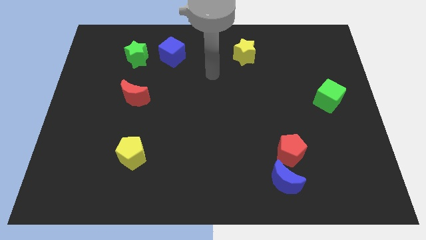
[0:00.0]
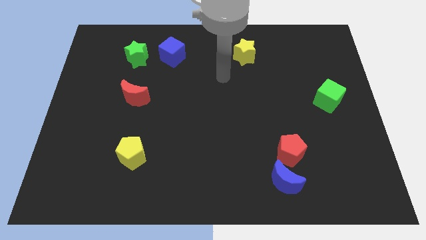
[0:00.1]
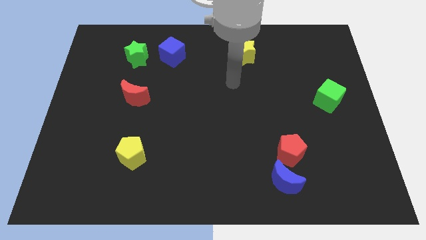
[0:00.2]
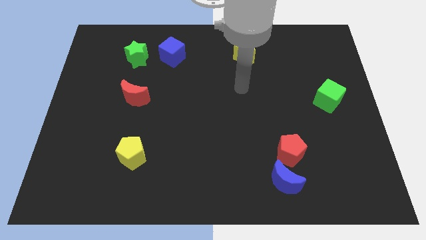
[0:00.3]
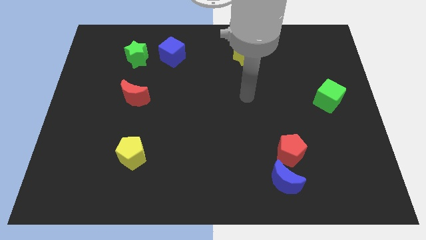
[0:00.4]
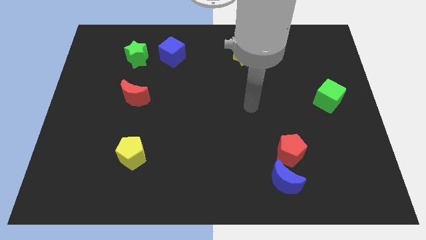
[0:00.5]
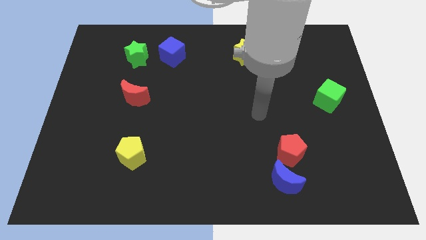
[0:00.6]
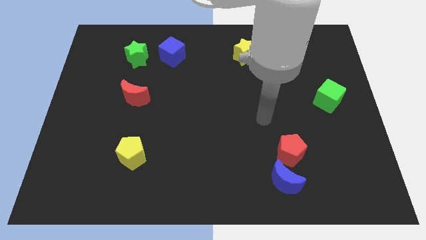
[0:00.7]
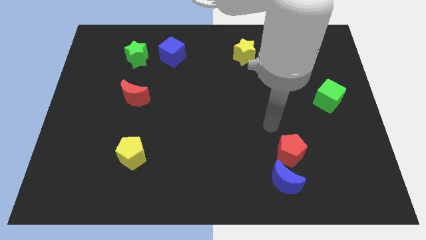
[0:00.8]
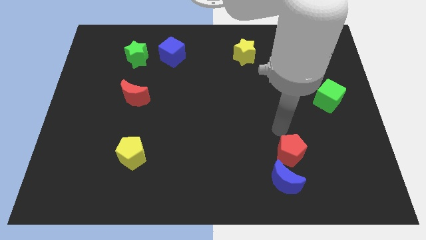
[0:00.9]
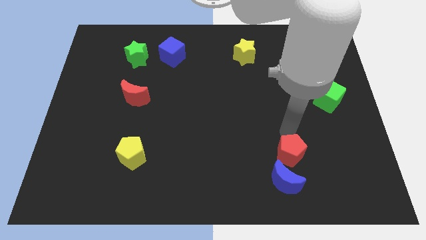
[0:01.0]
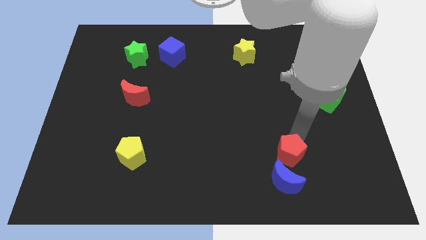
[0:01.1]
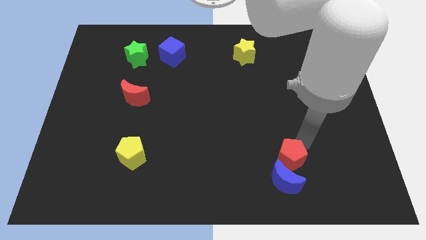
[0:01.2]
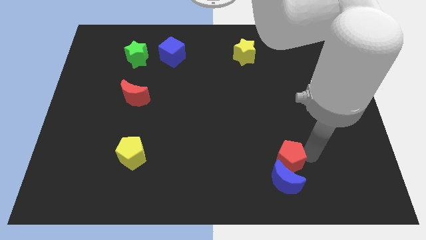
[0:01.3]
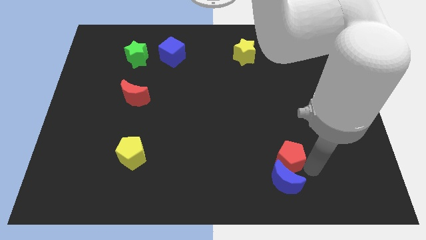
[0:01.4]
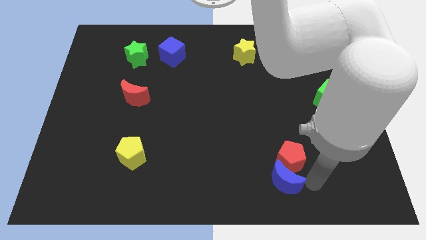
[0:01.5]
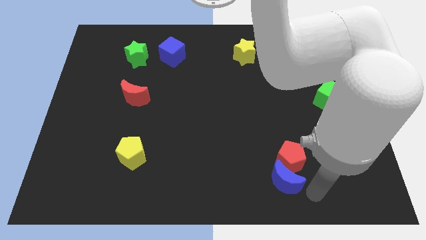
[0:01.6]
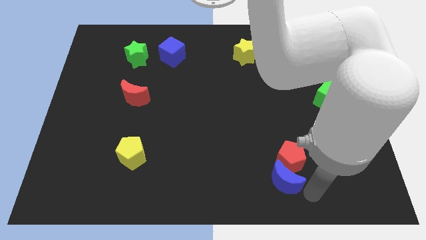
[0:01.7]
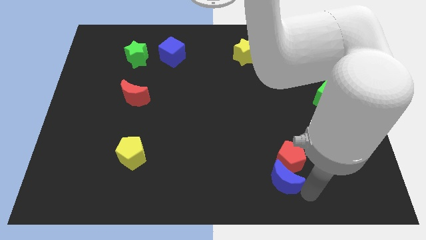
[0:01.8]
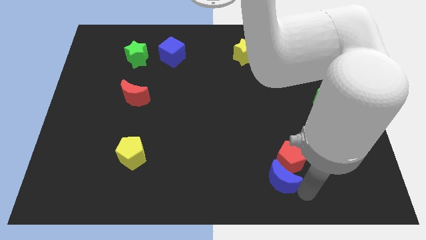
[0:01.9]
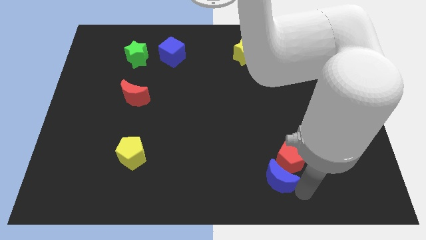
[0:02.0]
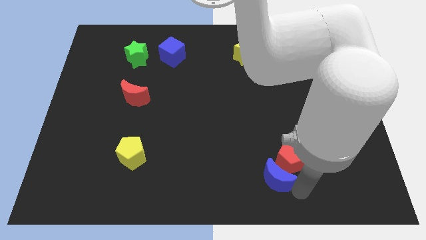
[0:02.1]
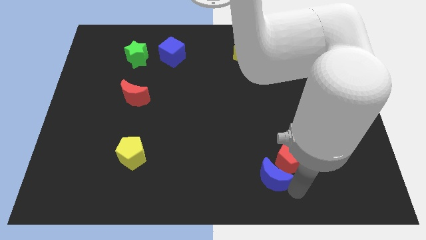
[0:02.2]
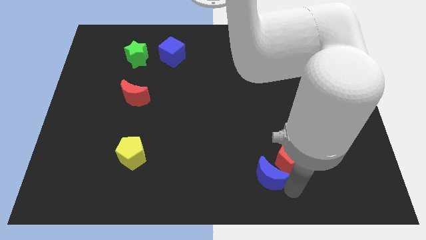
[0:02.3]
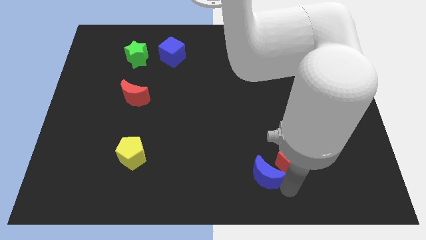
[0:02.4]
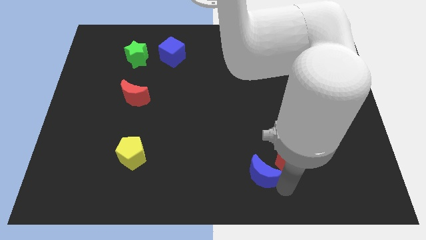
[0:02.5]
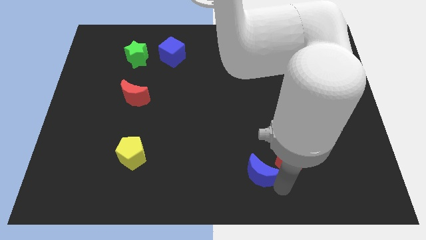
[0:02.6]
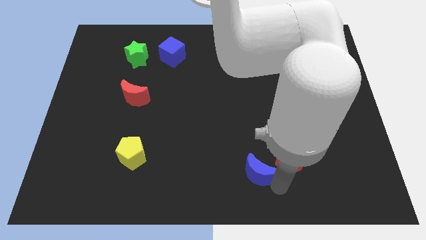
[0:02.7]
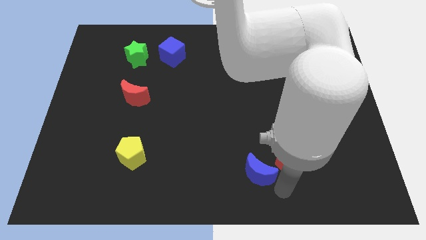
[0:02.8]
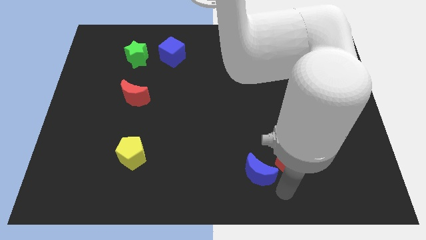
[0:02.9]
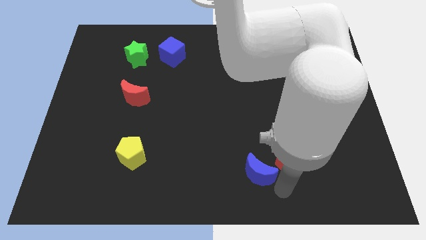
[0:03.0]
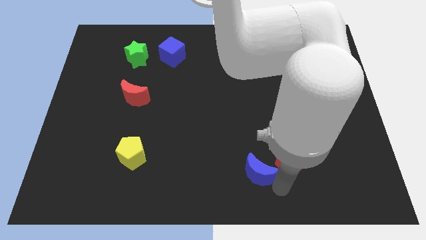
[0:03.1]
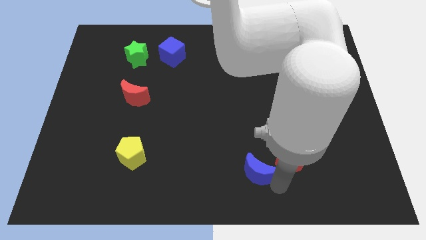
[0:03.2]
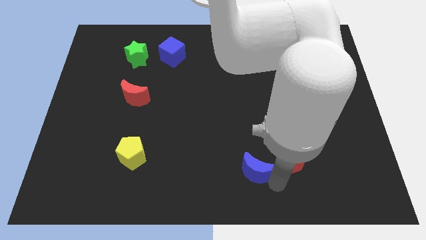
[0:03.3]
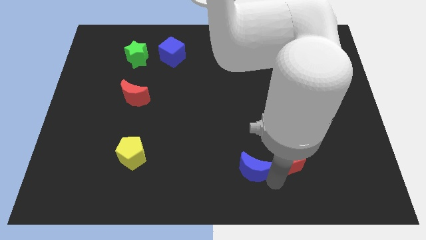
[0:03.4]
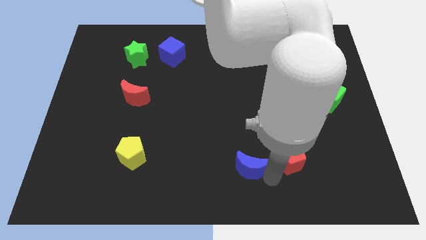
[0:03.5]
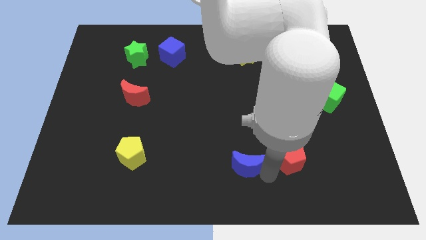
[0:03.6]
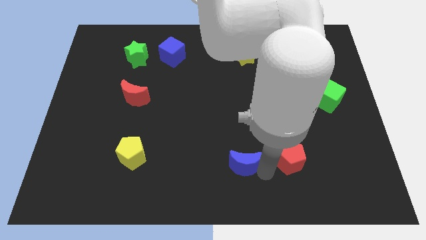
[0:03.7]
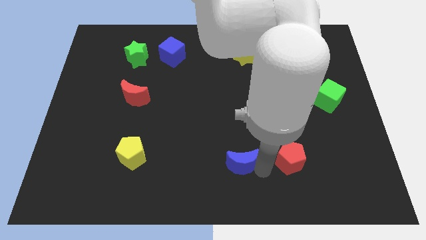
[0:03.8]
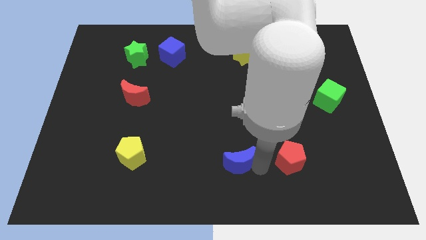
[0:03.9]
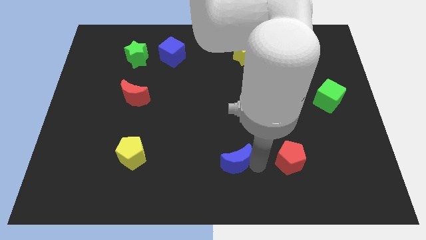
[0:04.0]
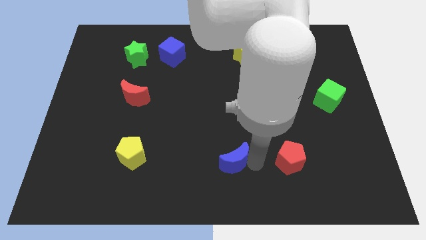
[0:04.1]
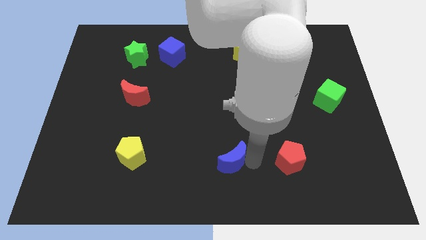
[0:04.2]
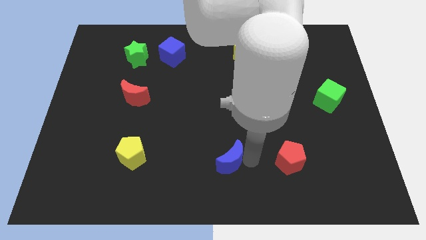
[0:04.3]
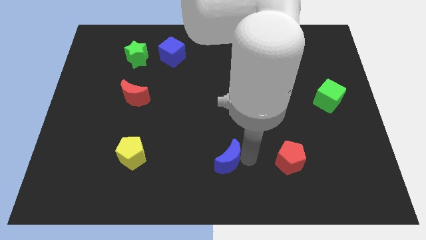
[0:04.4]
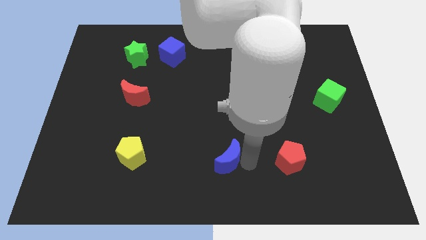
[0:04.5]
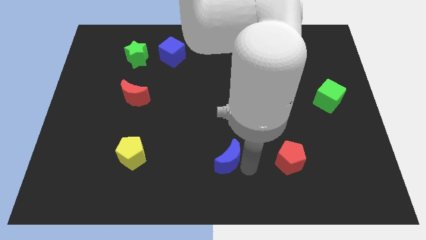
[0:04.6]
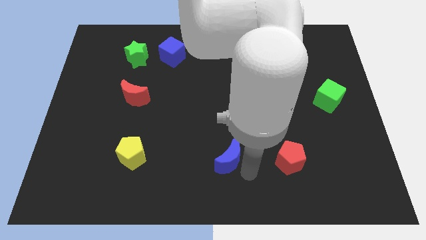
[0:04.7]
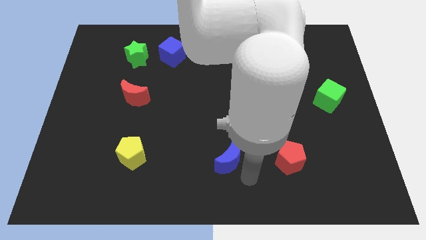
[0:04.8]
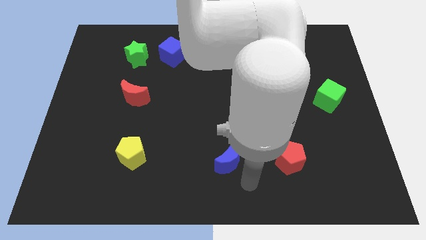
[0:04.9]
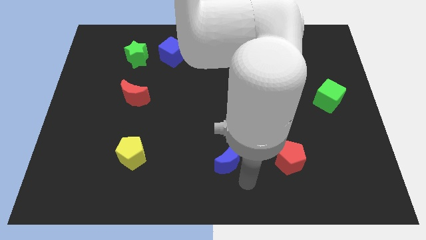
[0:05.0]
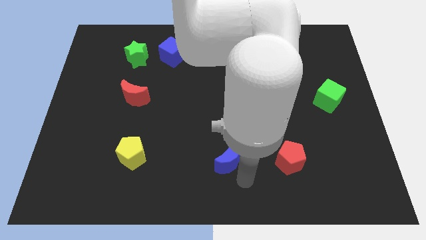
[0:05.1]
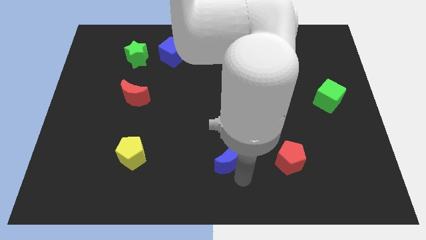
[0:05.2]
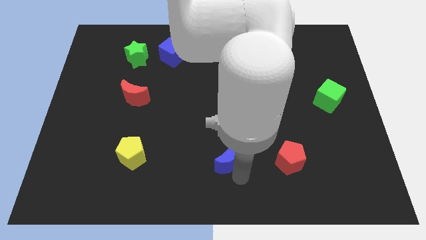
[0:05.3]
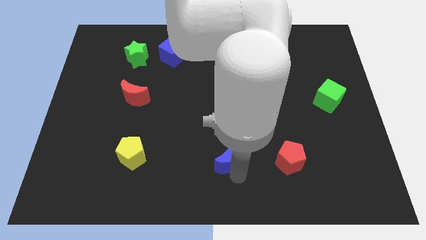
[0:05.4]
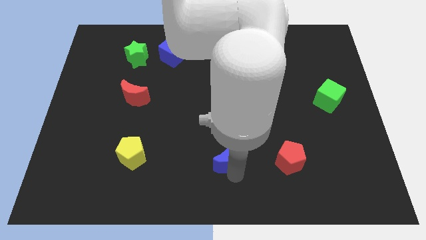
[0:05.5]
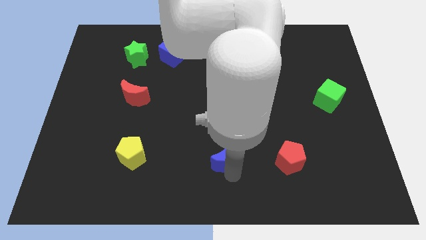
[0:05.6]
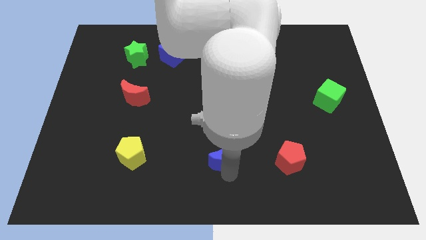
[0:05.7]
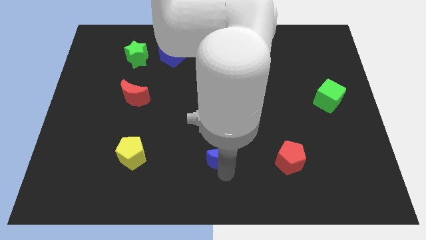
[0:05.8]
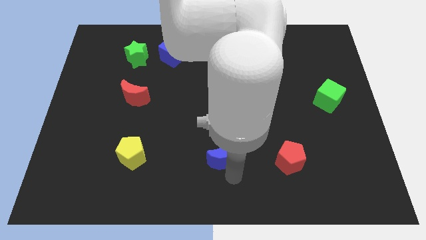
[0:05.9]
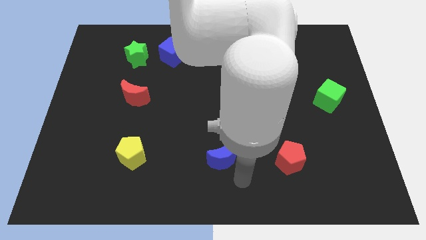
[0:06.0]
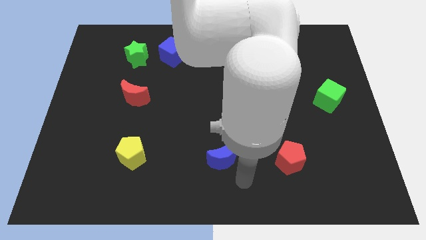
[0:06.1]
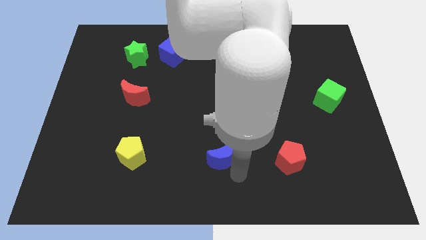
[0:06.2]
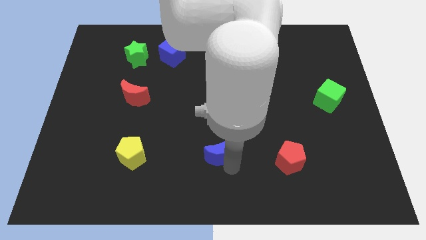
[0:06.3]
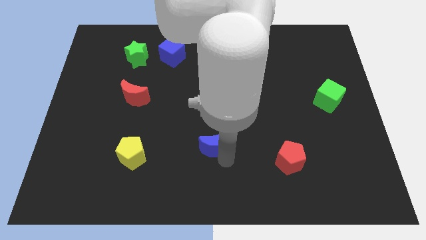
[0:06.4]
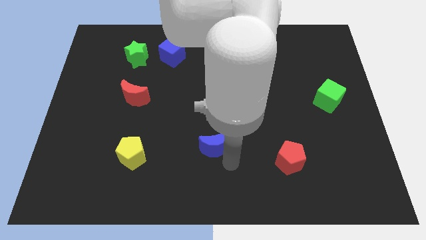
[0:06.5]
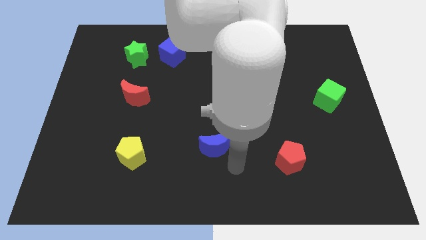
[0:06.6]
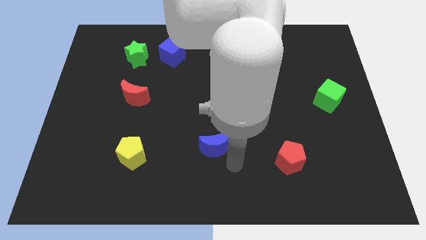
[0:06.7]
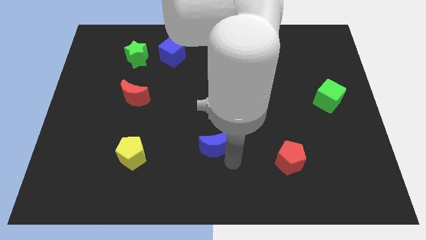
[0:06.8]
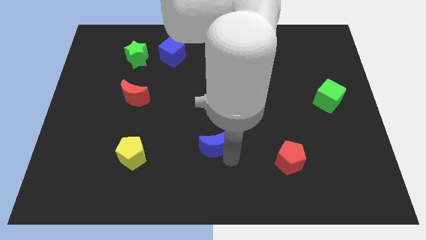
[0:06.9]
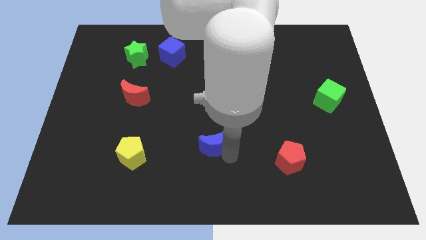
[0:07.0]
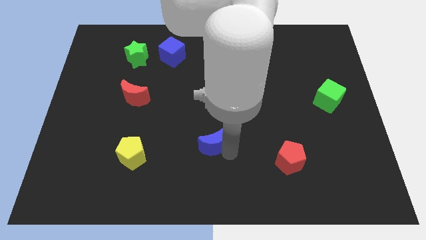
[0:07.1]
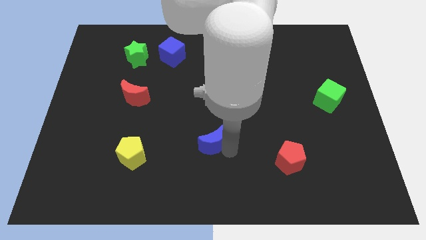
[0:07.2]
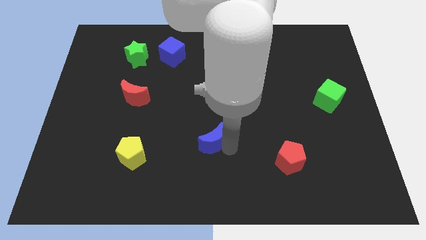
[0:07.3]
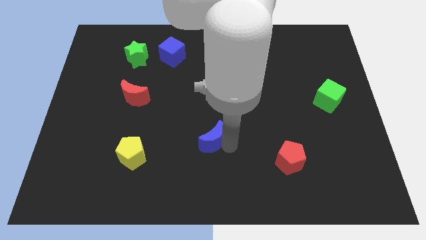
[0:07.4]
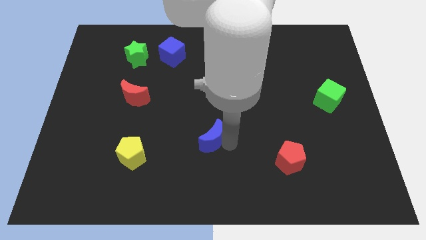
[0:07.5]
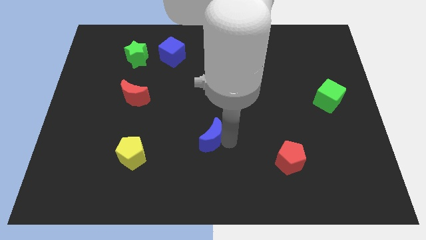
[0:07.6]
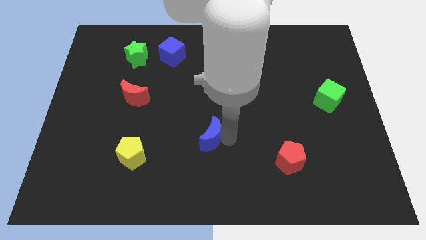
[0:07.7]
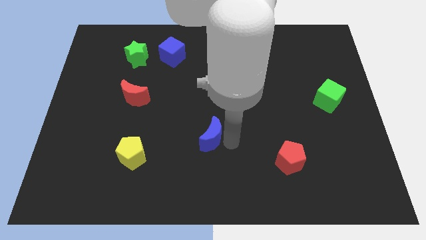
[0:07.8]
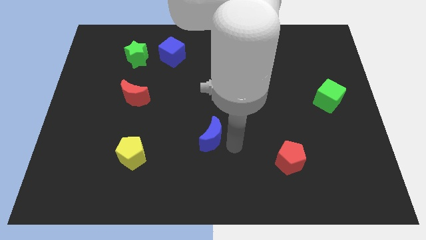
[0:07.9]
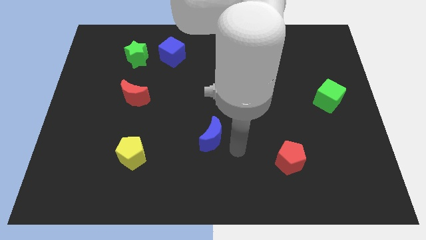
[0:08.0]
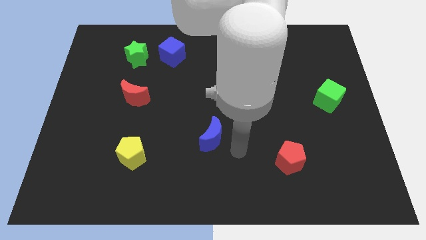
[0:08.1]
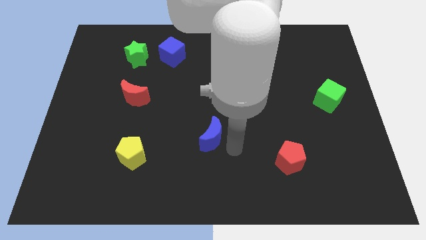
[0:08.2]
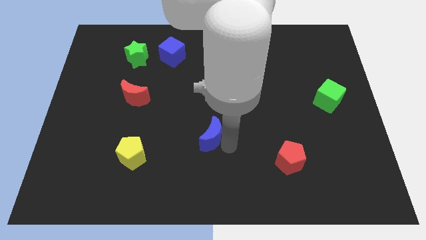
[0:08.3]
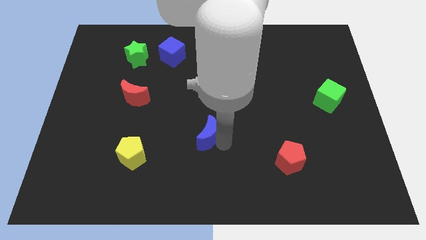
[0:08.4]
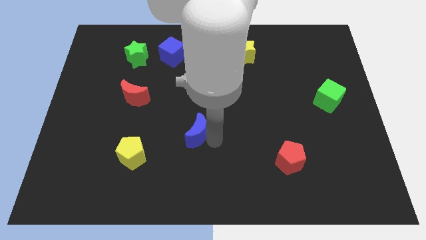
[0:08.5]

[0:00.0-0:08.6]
move the blue moon up and left diagonally
